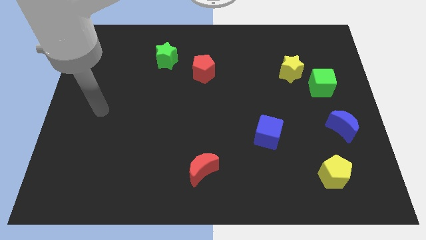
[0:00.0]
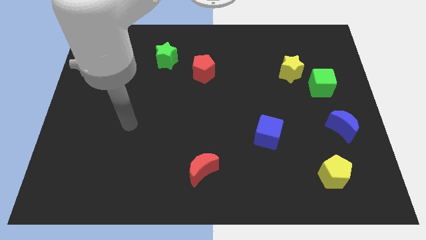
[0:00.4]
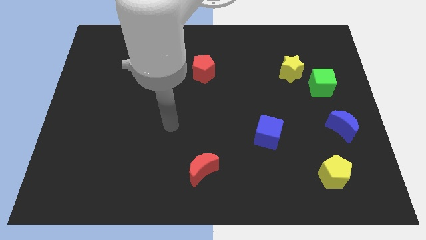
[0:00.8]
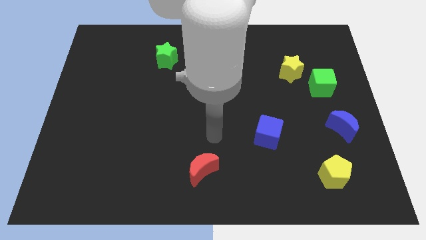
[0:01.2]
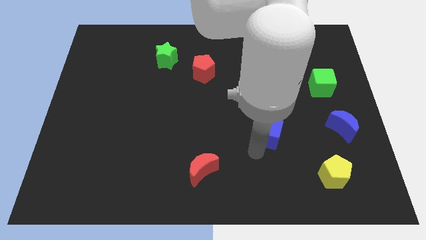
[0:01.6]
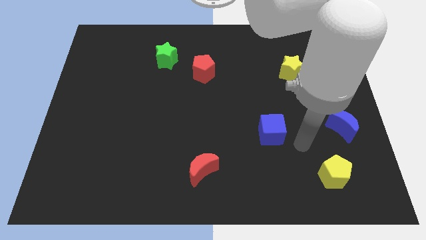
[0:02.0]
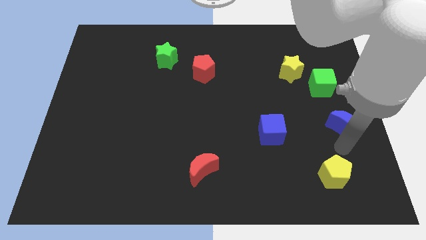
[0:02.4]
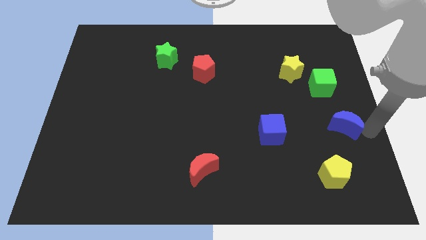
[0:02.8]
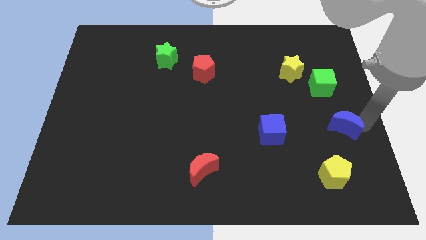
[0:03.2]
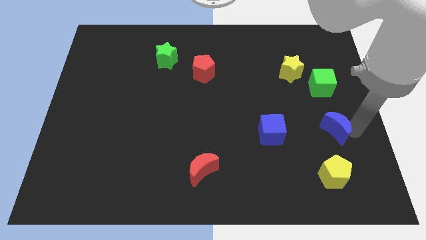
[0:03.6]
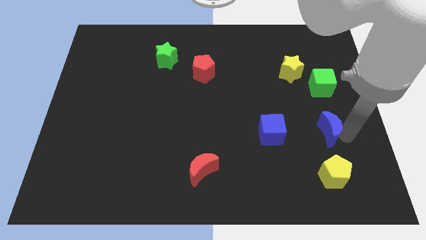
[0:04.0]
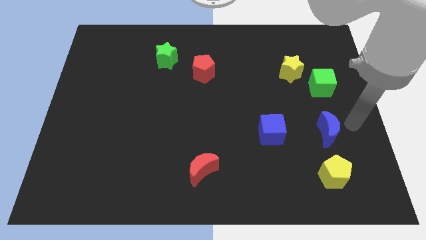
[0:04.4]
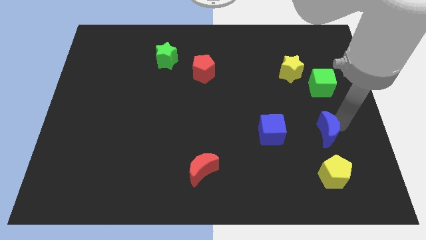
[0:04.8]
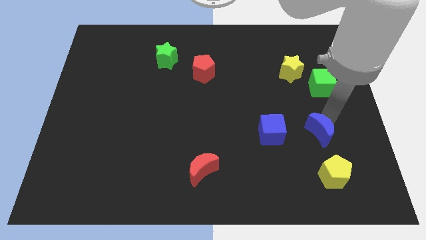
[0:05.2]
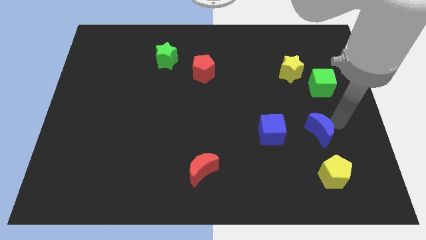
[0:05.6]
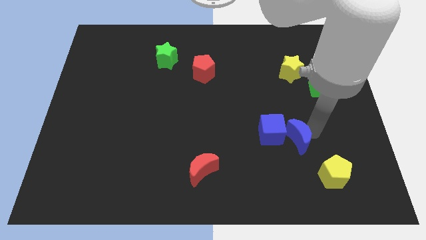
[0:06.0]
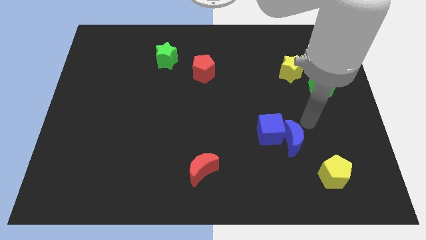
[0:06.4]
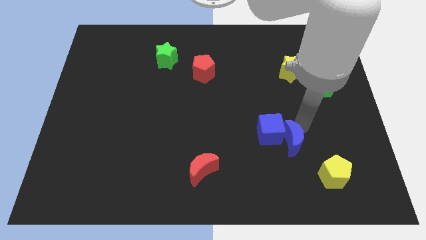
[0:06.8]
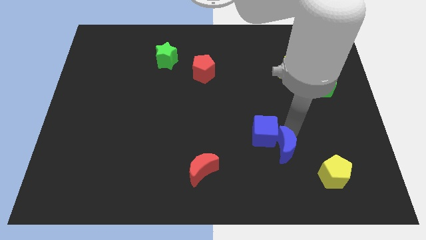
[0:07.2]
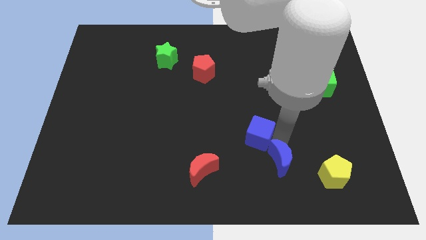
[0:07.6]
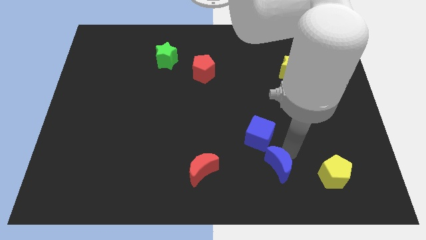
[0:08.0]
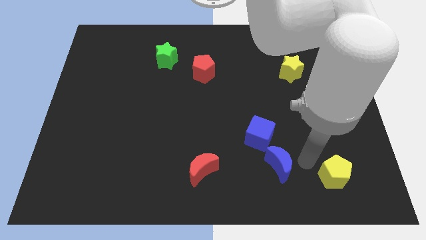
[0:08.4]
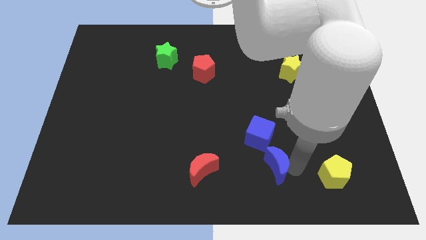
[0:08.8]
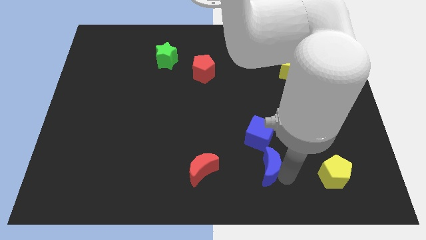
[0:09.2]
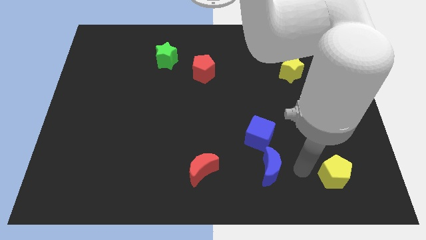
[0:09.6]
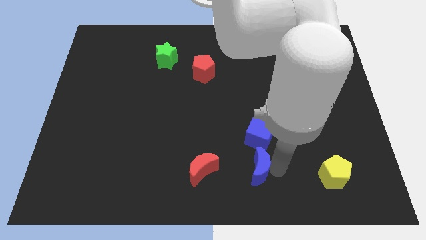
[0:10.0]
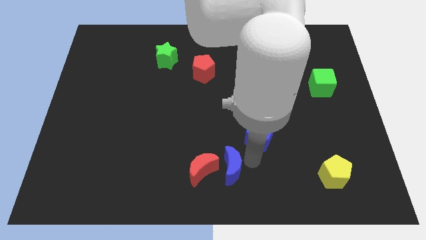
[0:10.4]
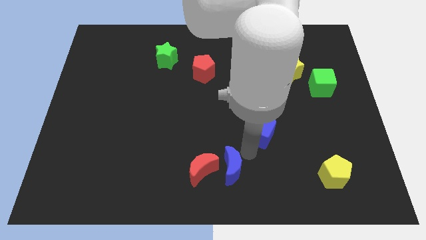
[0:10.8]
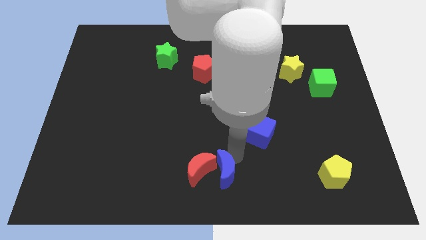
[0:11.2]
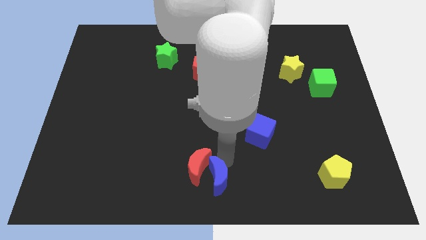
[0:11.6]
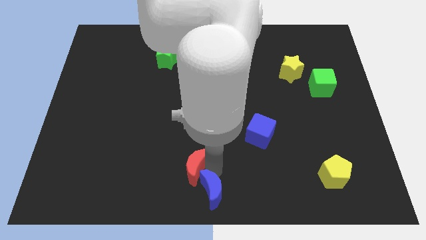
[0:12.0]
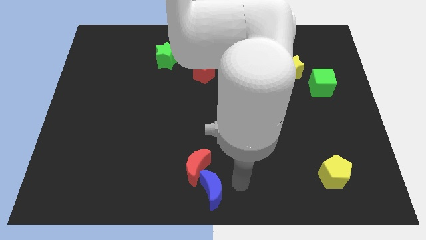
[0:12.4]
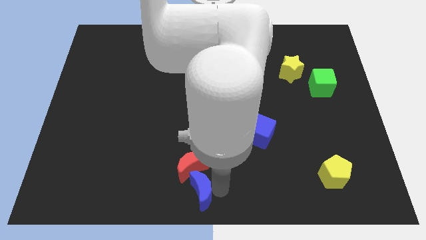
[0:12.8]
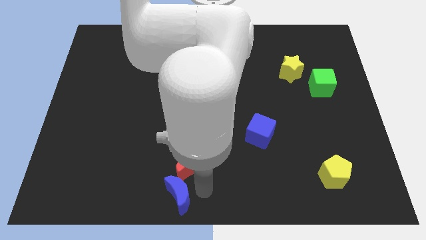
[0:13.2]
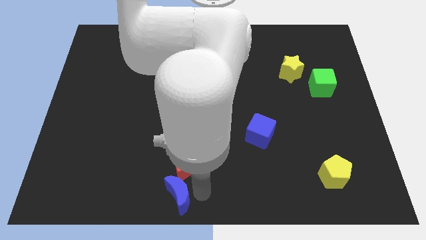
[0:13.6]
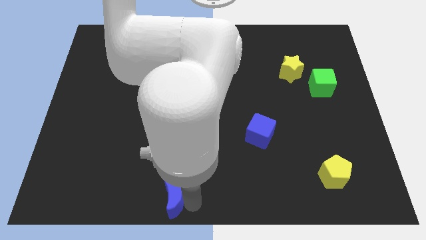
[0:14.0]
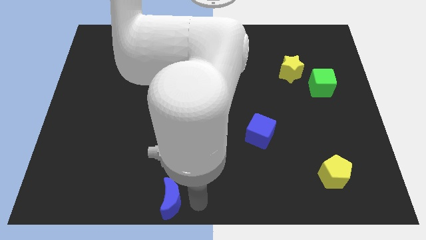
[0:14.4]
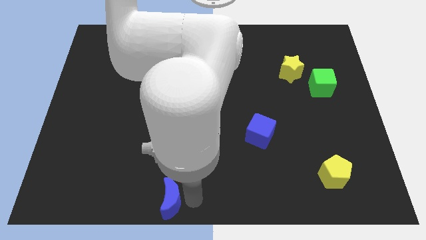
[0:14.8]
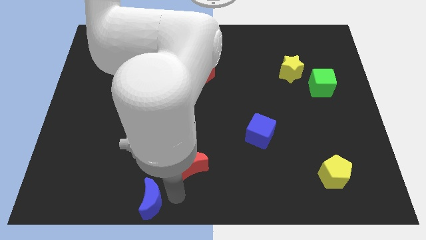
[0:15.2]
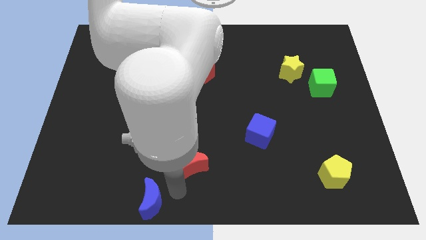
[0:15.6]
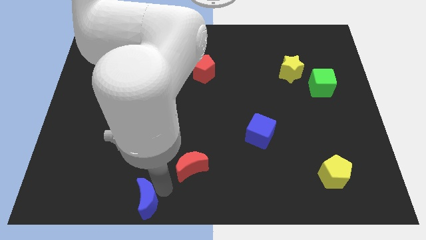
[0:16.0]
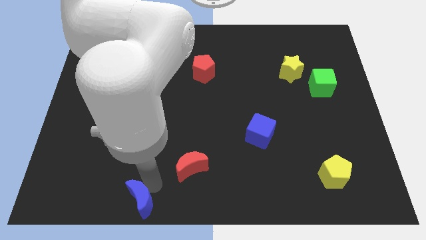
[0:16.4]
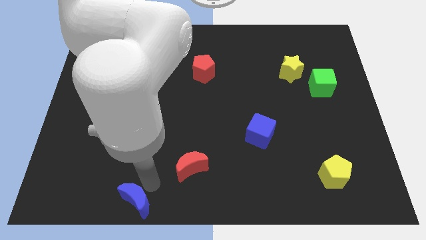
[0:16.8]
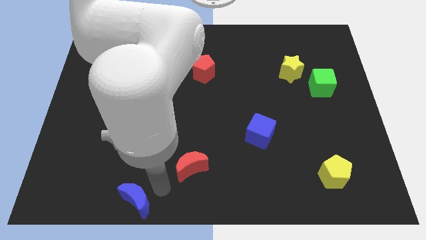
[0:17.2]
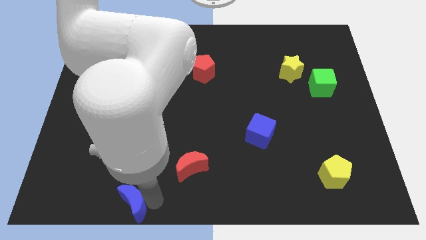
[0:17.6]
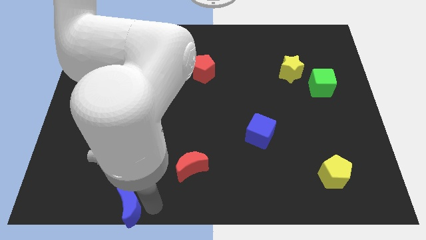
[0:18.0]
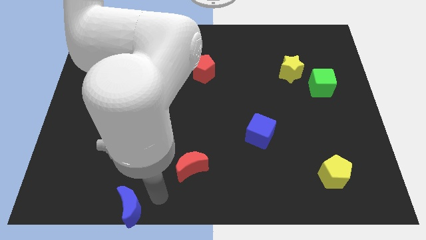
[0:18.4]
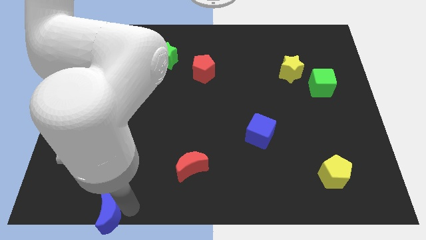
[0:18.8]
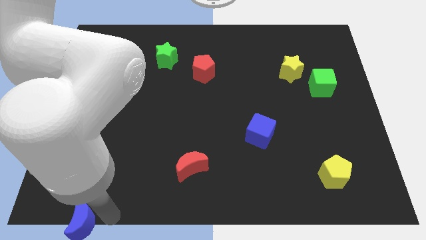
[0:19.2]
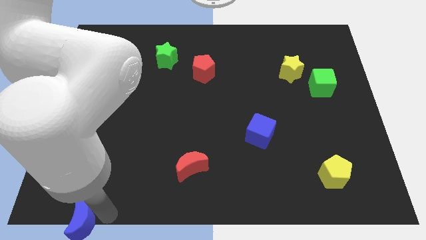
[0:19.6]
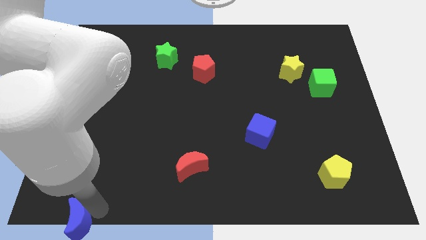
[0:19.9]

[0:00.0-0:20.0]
slide the blue moon to the bottom left
